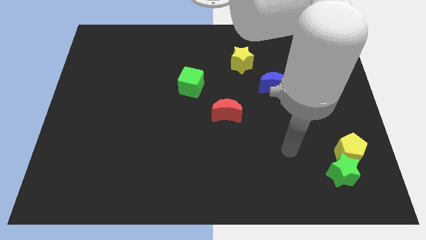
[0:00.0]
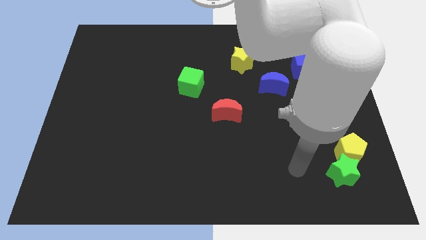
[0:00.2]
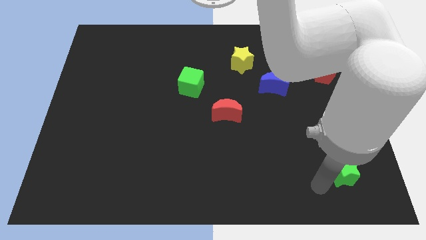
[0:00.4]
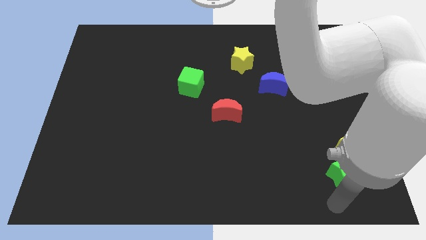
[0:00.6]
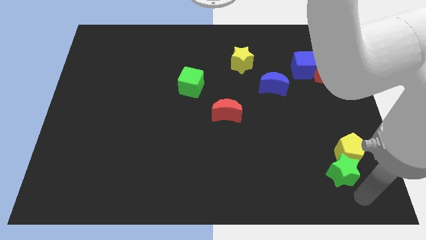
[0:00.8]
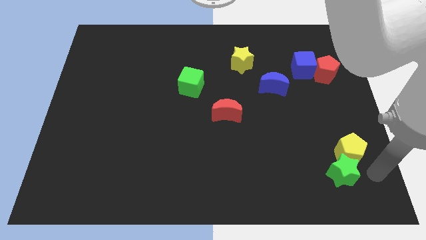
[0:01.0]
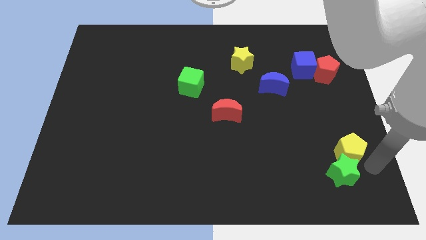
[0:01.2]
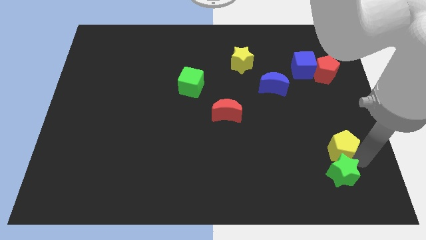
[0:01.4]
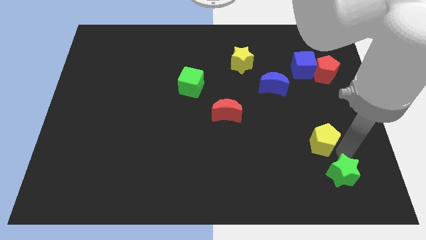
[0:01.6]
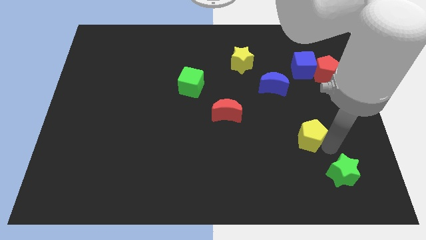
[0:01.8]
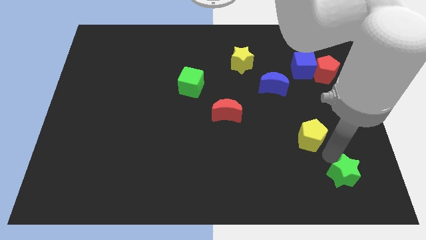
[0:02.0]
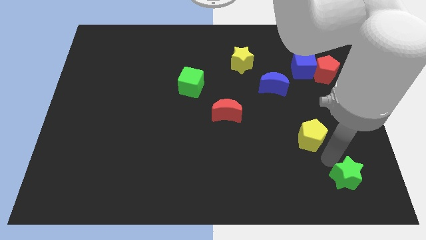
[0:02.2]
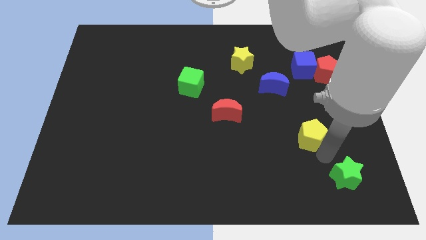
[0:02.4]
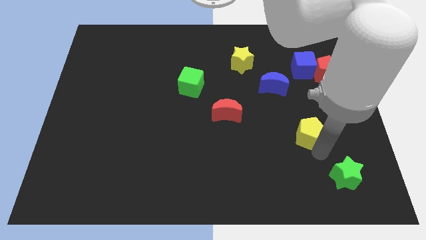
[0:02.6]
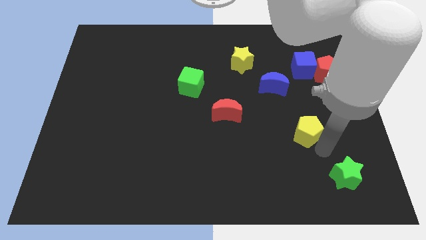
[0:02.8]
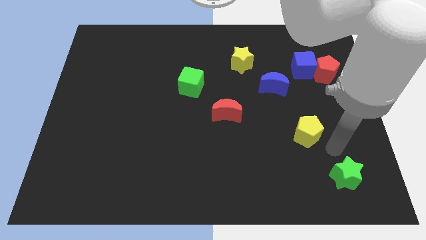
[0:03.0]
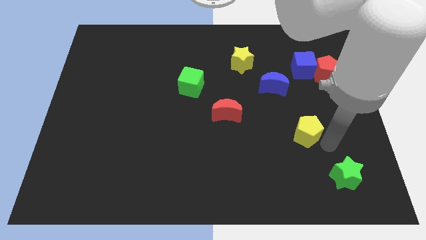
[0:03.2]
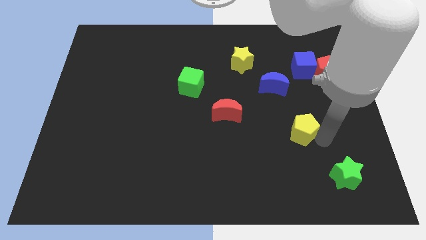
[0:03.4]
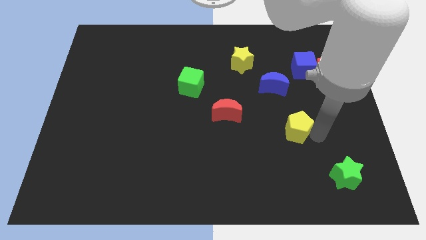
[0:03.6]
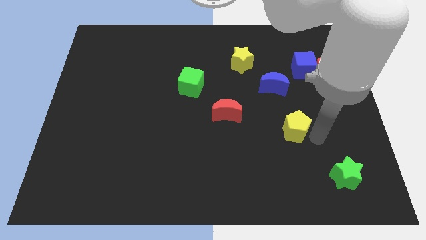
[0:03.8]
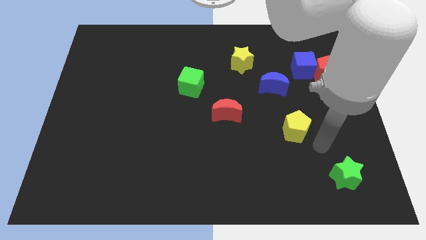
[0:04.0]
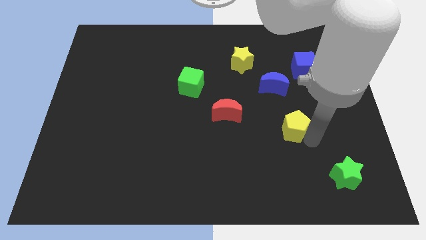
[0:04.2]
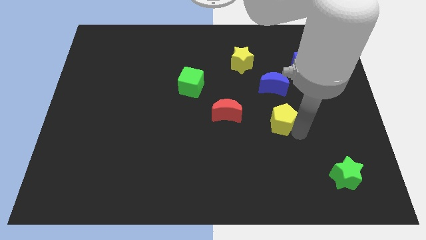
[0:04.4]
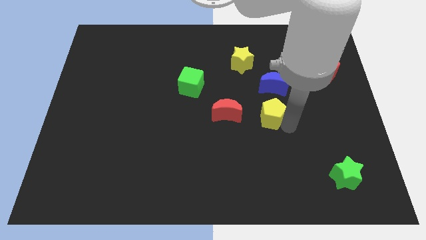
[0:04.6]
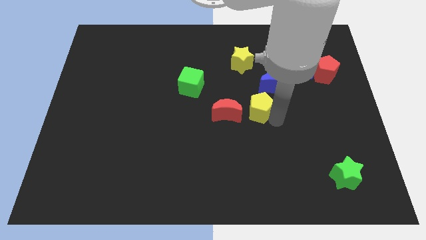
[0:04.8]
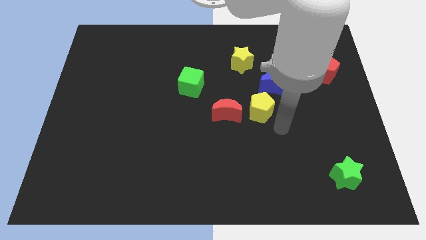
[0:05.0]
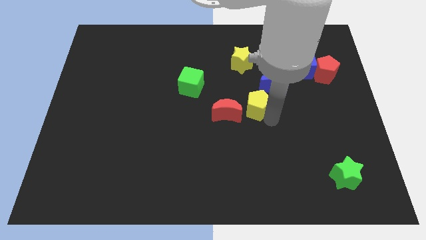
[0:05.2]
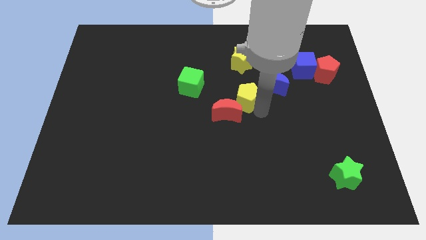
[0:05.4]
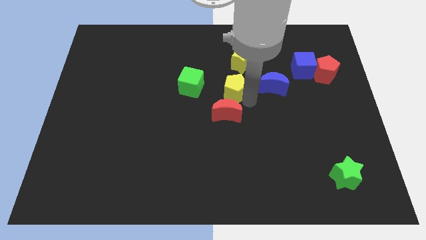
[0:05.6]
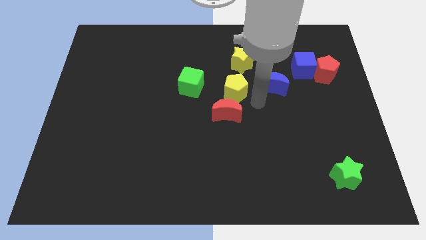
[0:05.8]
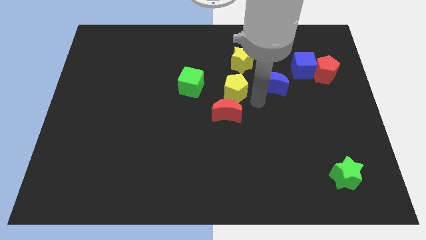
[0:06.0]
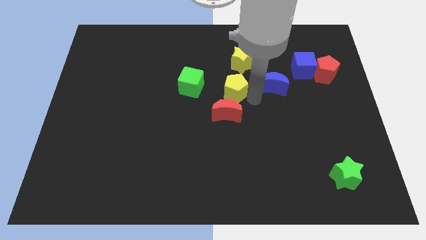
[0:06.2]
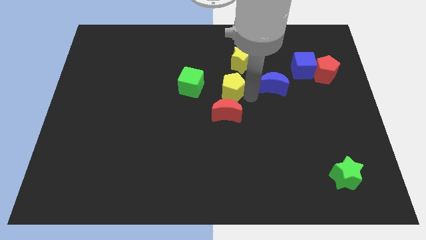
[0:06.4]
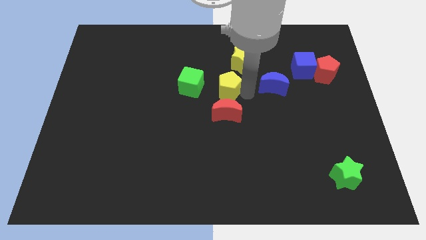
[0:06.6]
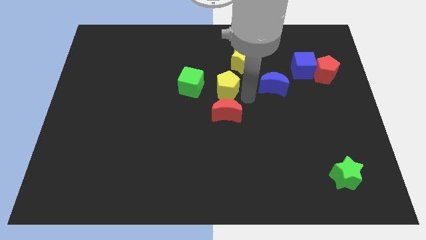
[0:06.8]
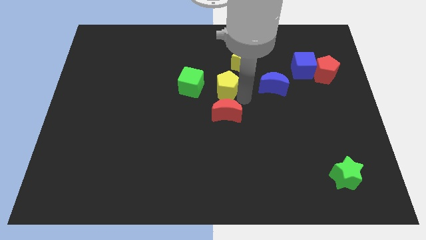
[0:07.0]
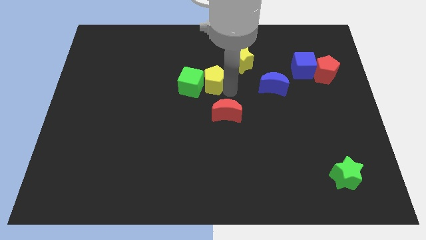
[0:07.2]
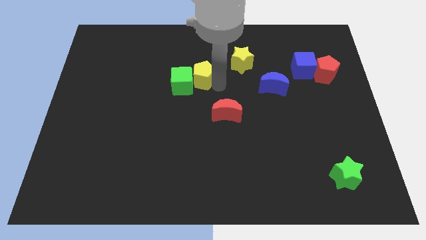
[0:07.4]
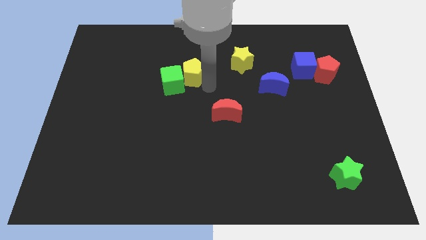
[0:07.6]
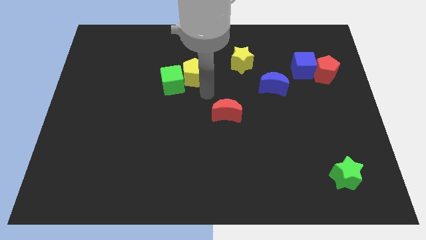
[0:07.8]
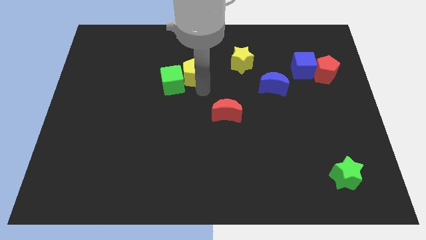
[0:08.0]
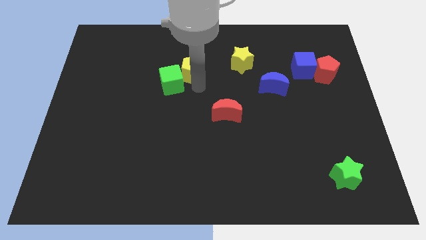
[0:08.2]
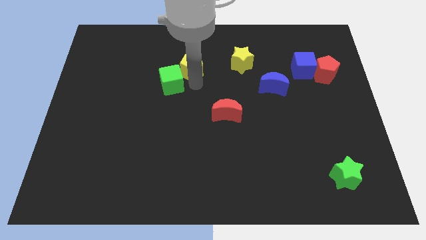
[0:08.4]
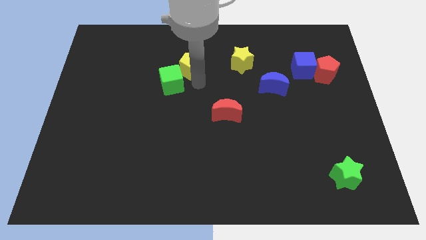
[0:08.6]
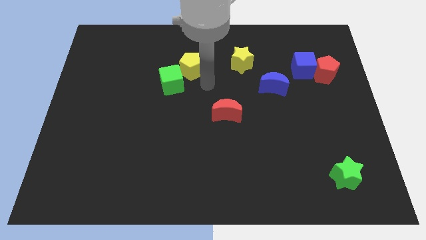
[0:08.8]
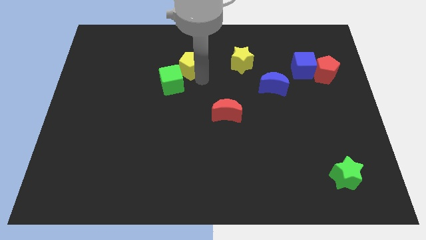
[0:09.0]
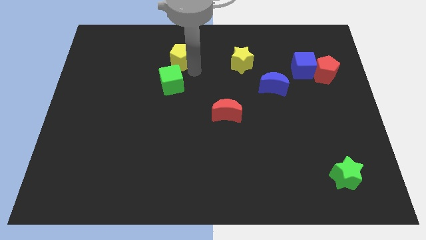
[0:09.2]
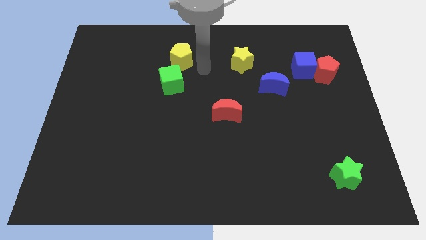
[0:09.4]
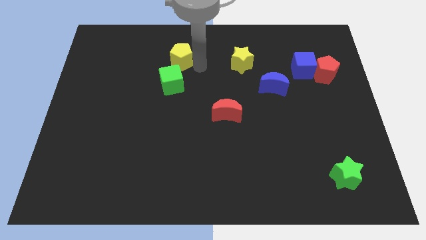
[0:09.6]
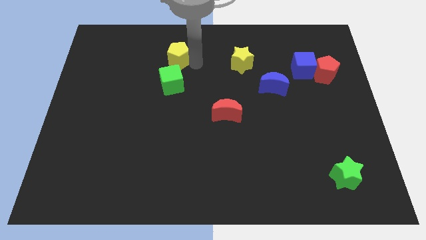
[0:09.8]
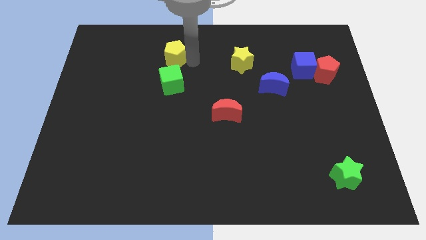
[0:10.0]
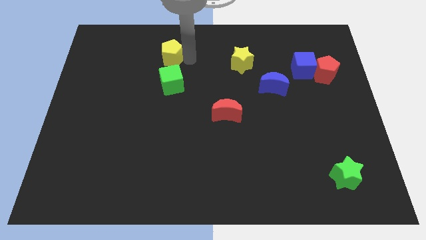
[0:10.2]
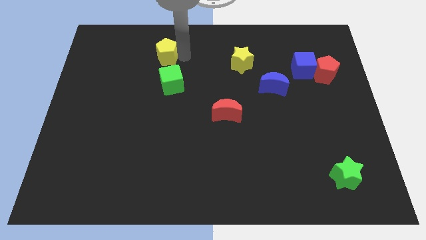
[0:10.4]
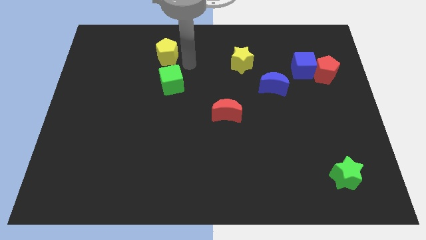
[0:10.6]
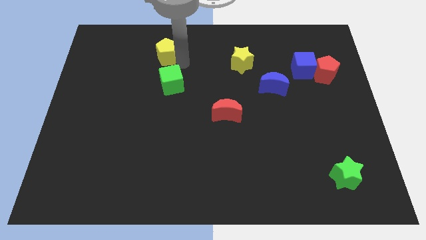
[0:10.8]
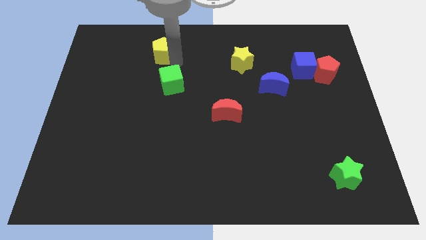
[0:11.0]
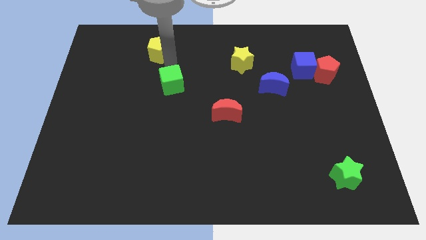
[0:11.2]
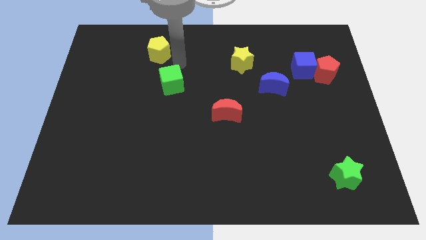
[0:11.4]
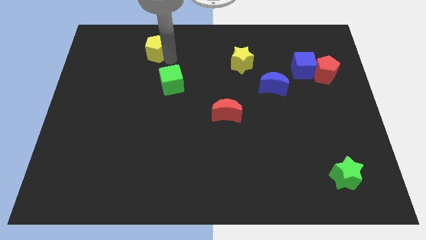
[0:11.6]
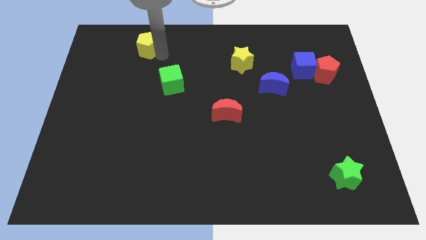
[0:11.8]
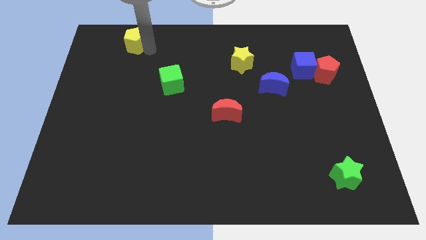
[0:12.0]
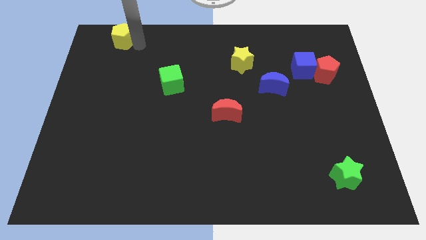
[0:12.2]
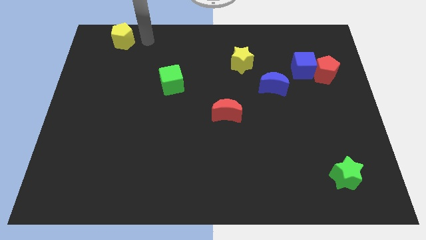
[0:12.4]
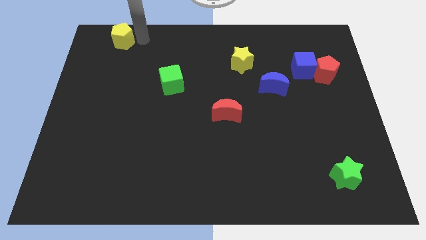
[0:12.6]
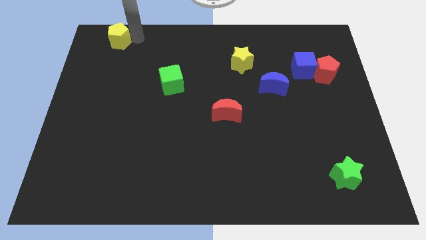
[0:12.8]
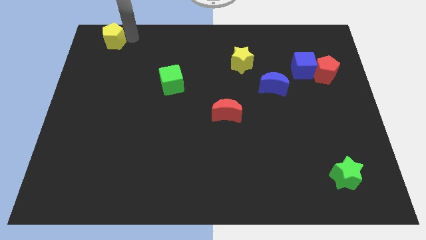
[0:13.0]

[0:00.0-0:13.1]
push the yellow pentagon to the top left
